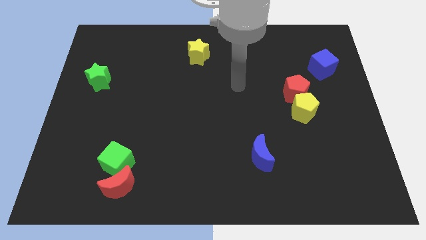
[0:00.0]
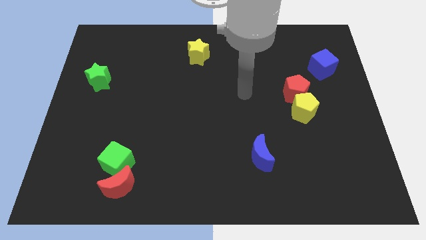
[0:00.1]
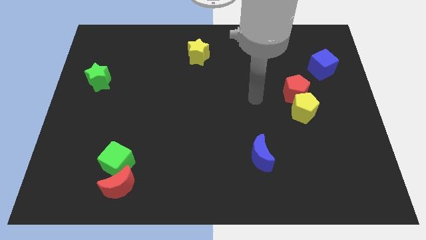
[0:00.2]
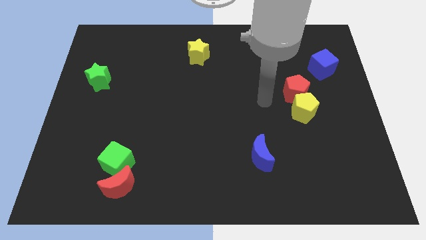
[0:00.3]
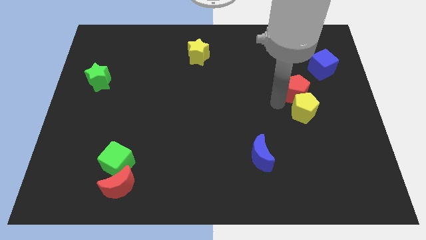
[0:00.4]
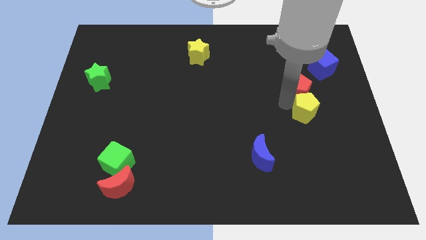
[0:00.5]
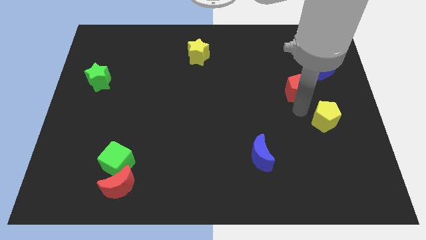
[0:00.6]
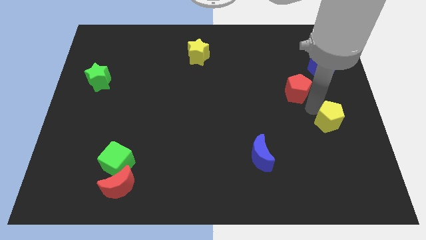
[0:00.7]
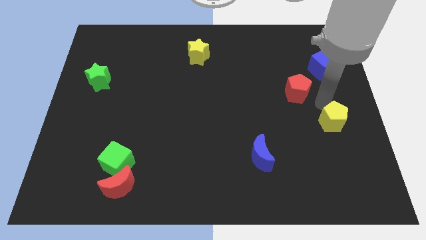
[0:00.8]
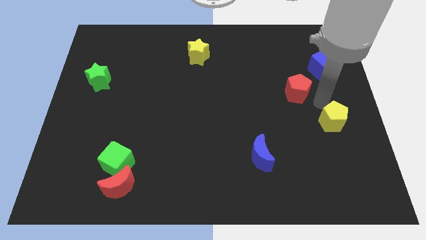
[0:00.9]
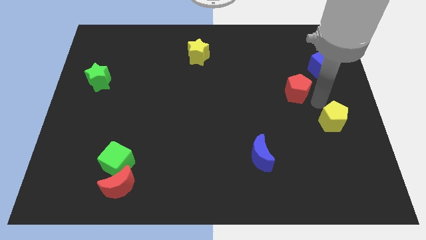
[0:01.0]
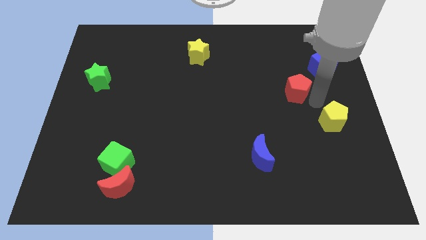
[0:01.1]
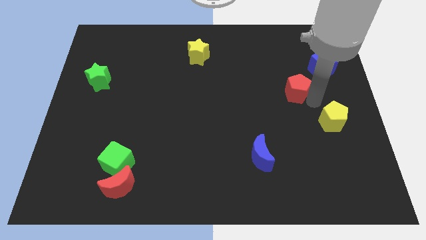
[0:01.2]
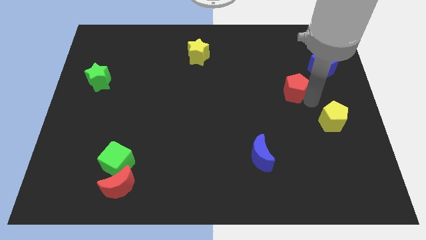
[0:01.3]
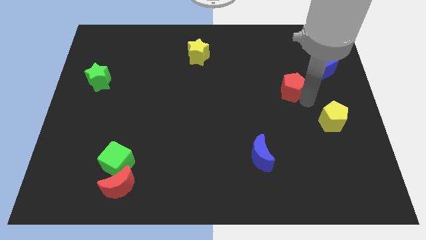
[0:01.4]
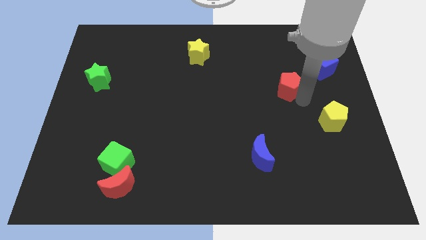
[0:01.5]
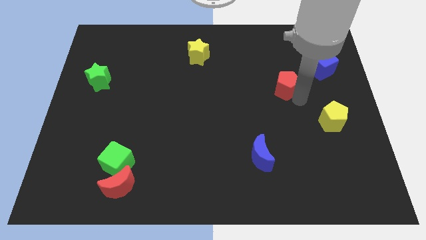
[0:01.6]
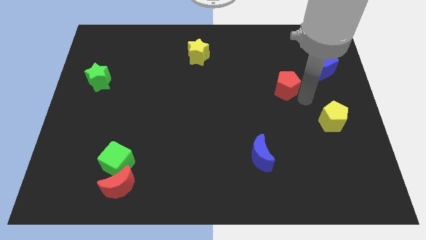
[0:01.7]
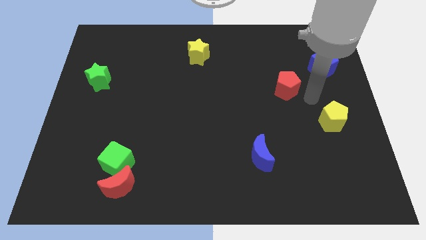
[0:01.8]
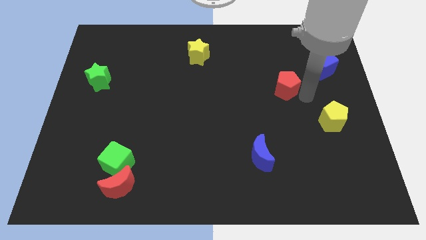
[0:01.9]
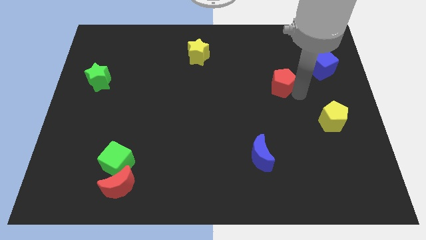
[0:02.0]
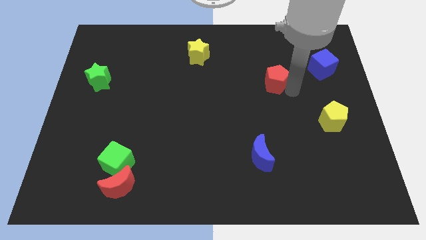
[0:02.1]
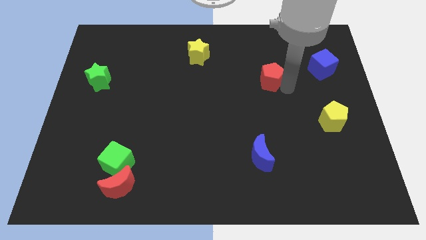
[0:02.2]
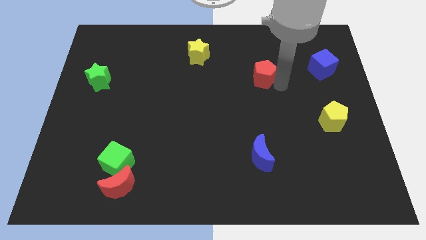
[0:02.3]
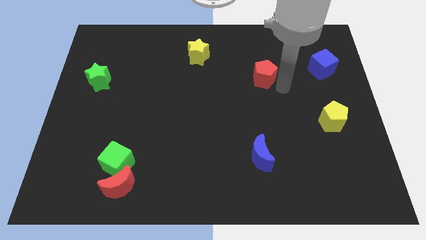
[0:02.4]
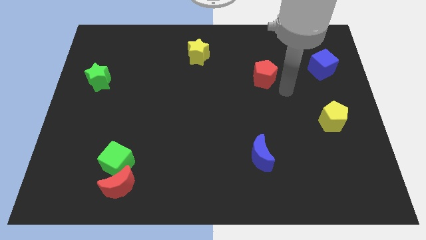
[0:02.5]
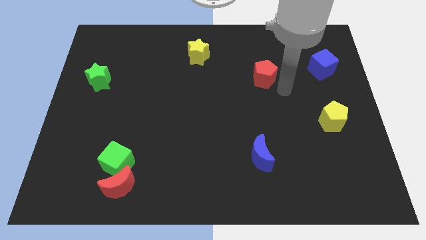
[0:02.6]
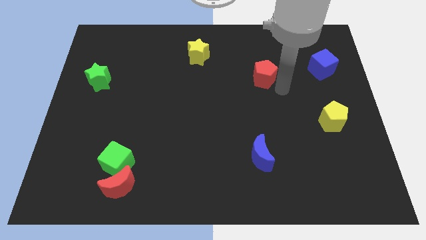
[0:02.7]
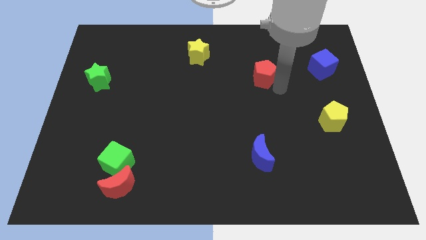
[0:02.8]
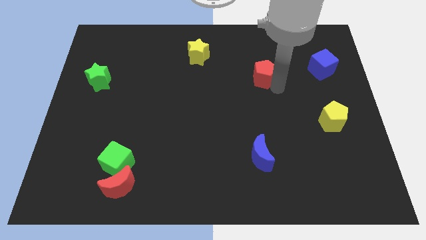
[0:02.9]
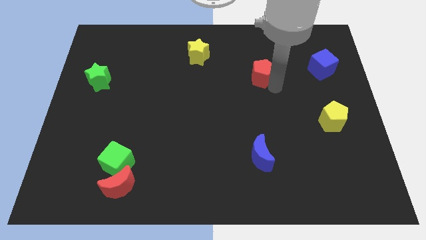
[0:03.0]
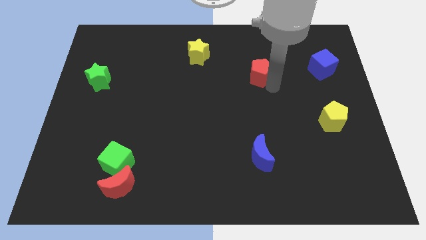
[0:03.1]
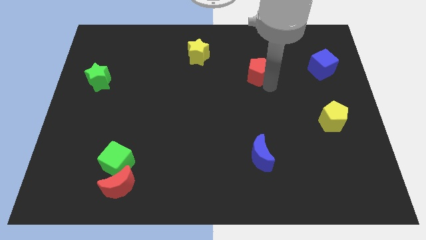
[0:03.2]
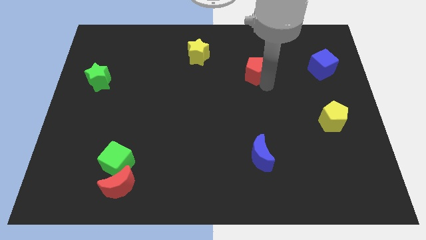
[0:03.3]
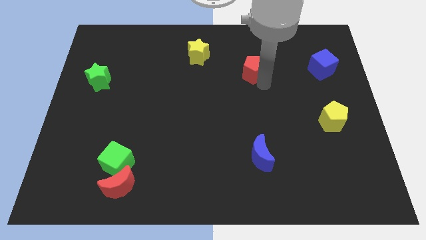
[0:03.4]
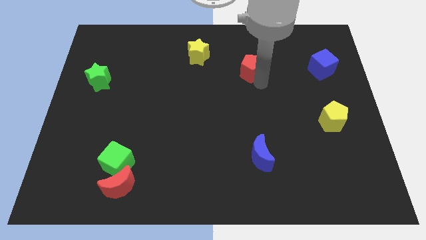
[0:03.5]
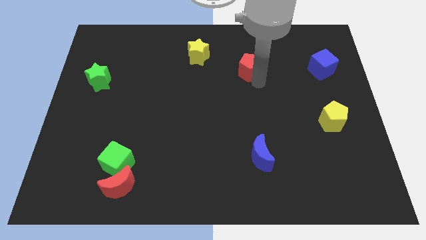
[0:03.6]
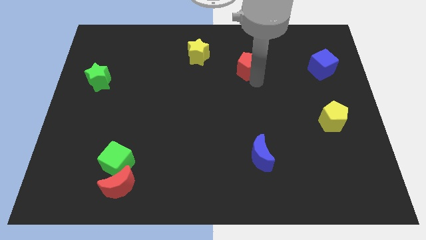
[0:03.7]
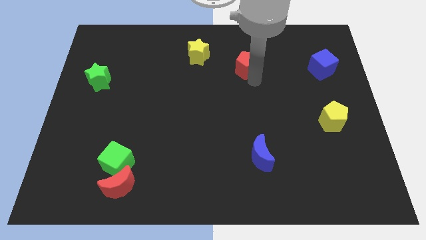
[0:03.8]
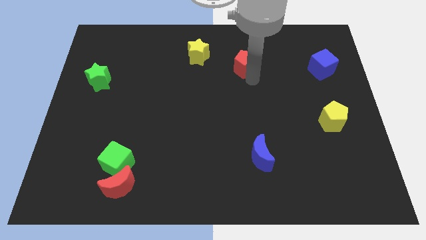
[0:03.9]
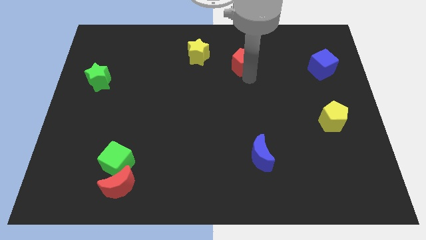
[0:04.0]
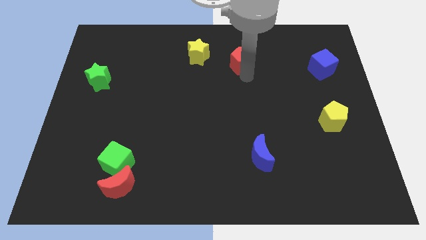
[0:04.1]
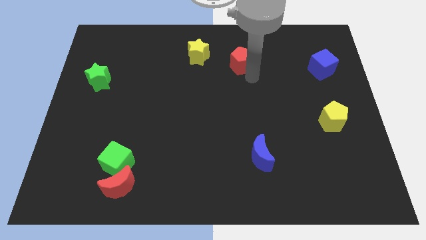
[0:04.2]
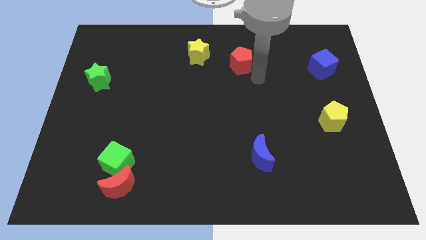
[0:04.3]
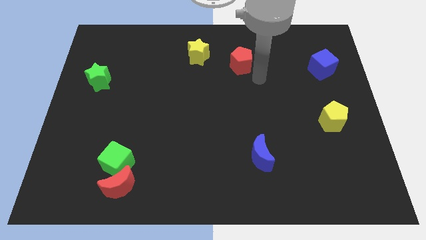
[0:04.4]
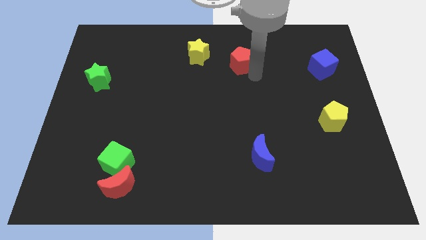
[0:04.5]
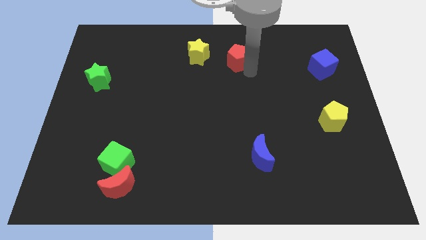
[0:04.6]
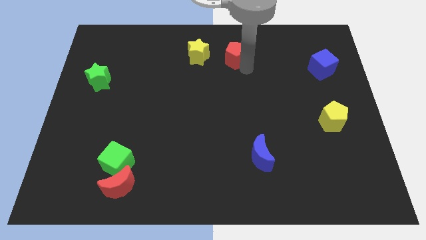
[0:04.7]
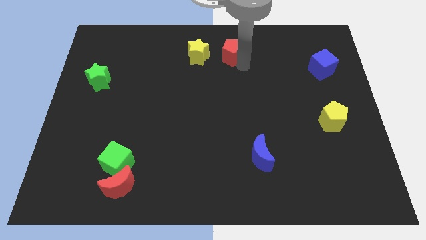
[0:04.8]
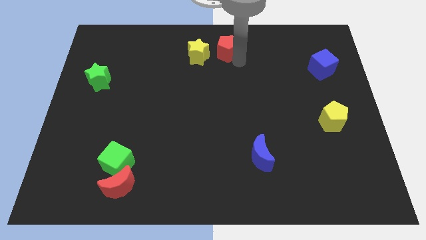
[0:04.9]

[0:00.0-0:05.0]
move the red pentagon to the towards your base

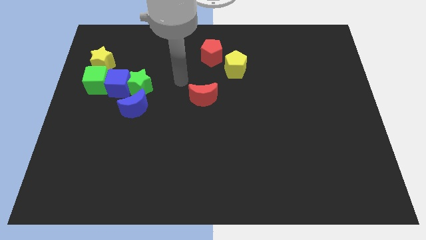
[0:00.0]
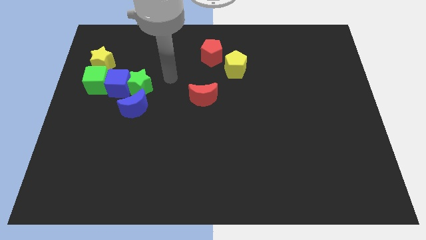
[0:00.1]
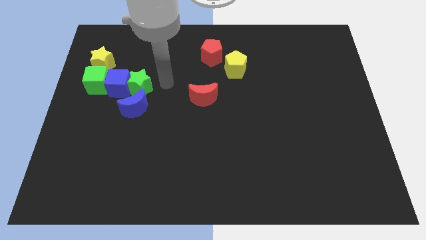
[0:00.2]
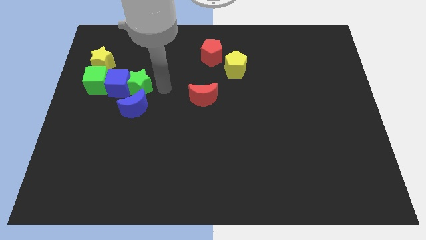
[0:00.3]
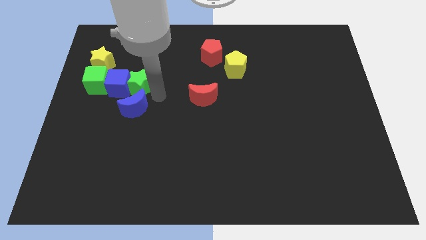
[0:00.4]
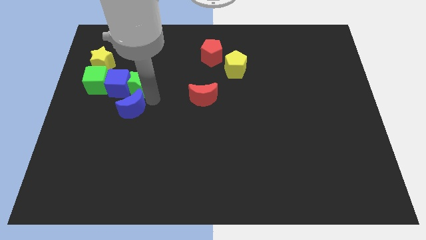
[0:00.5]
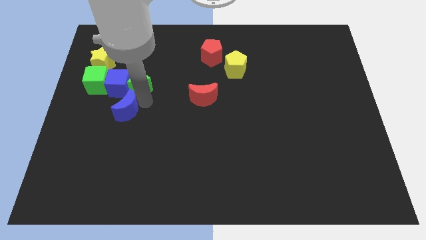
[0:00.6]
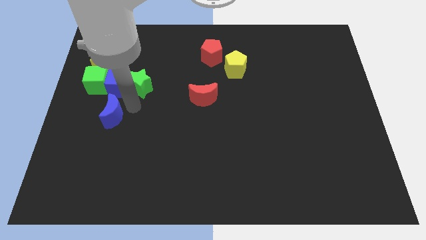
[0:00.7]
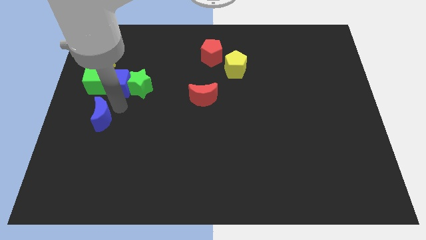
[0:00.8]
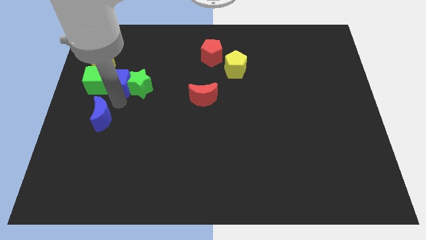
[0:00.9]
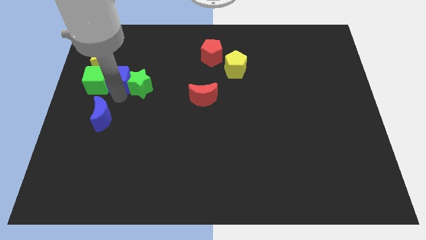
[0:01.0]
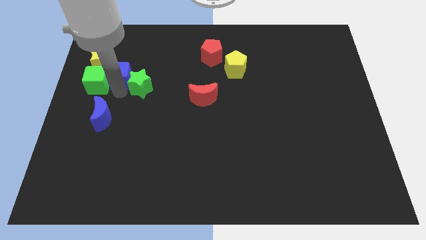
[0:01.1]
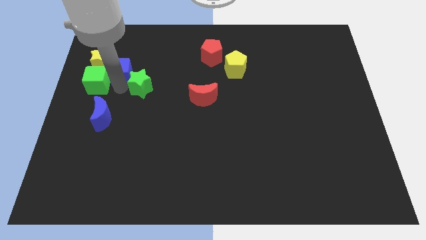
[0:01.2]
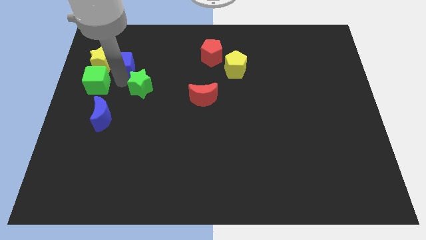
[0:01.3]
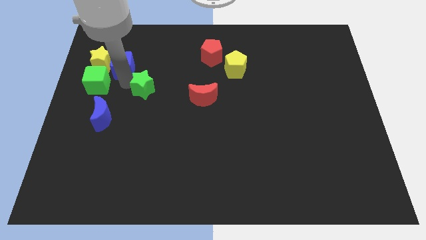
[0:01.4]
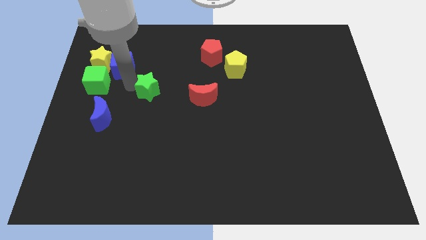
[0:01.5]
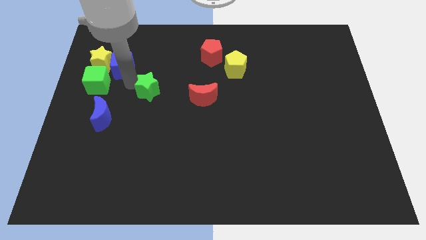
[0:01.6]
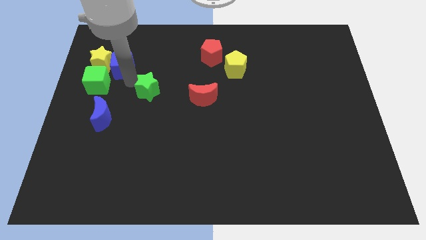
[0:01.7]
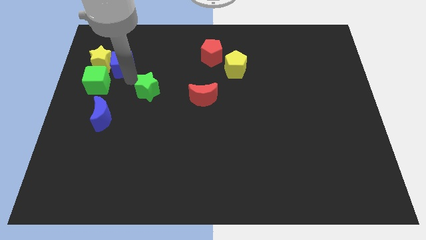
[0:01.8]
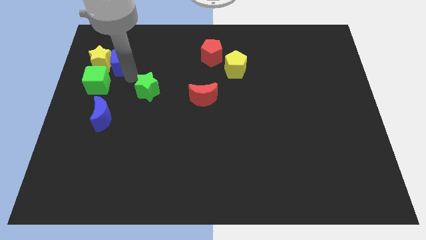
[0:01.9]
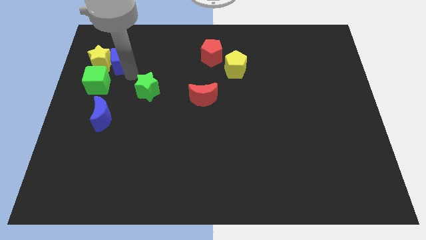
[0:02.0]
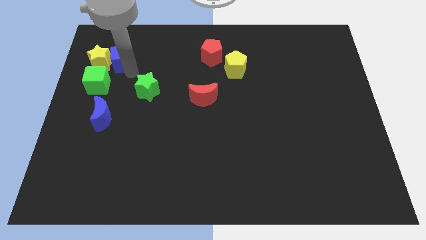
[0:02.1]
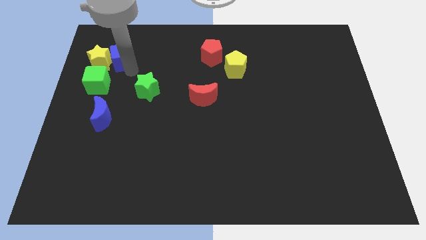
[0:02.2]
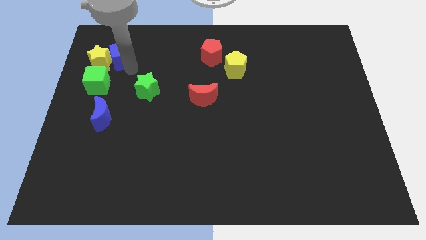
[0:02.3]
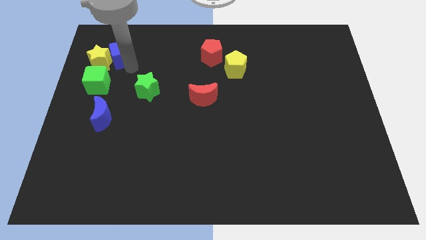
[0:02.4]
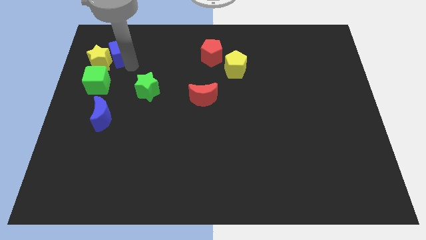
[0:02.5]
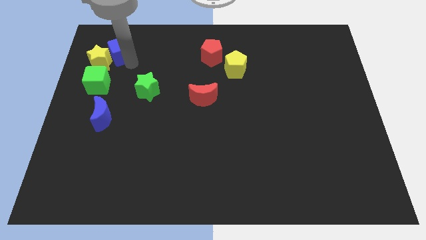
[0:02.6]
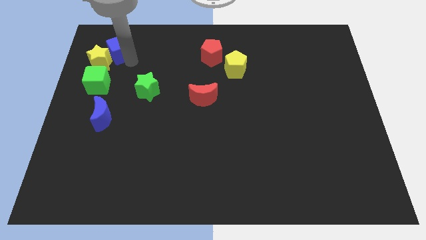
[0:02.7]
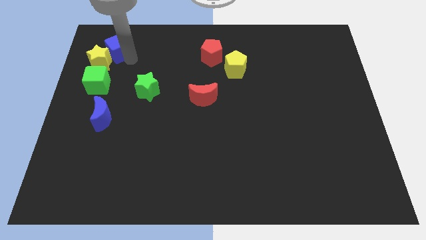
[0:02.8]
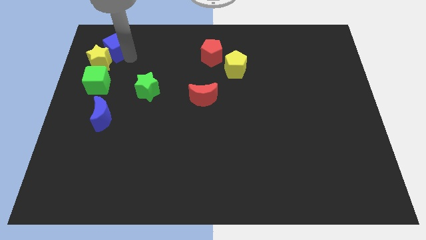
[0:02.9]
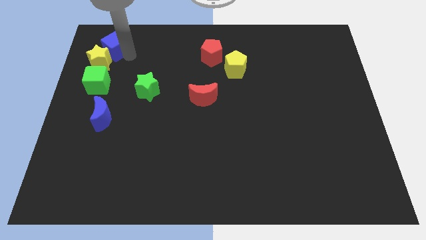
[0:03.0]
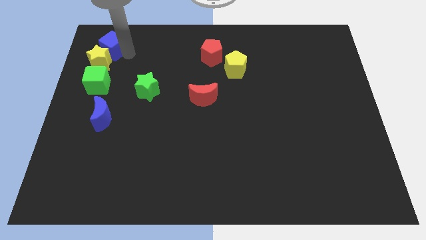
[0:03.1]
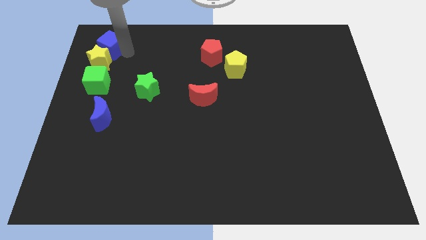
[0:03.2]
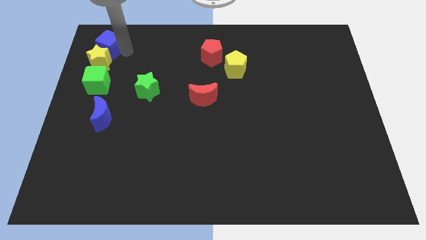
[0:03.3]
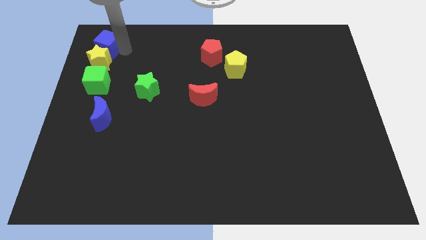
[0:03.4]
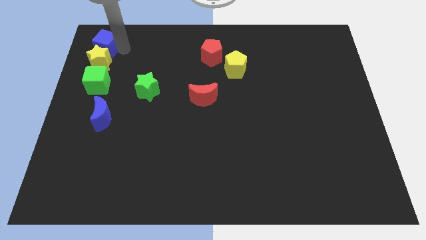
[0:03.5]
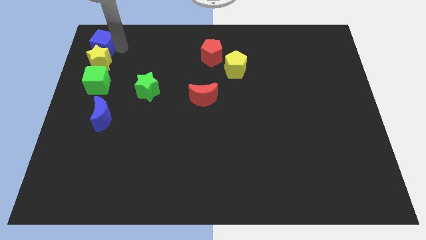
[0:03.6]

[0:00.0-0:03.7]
slide the blue cube to the top left of the board
